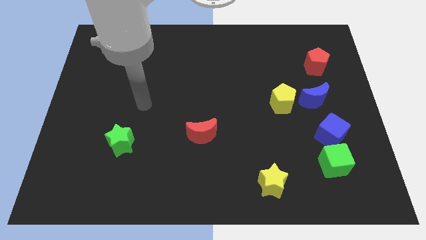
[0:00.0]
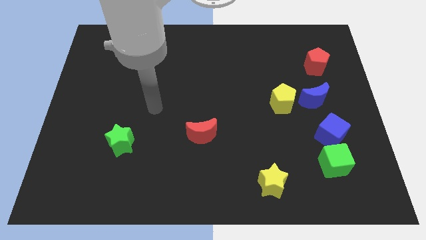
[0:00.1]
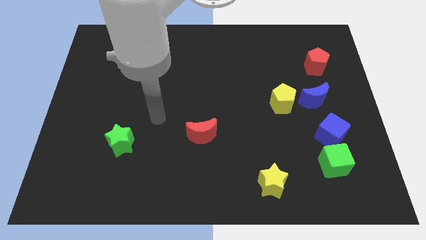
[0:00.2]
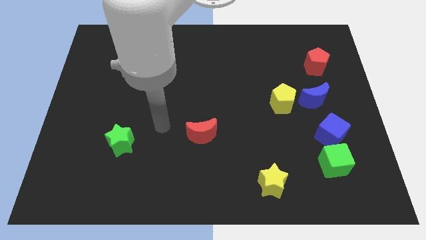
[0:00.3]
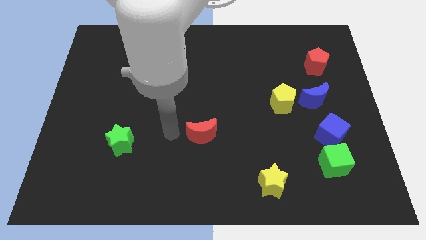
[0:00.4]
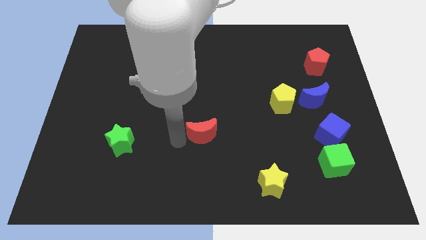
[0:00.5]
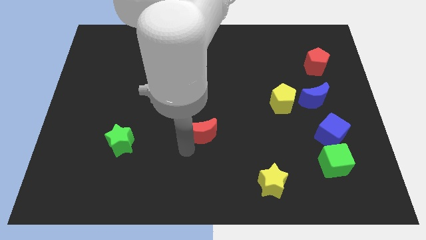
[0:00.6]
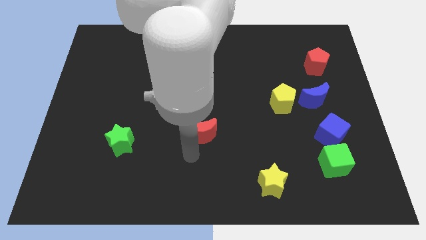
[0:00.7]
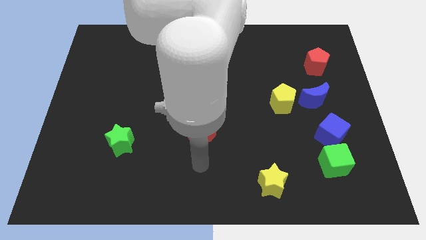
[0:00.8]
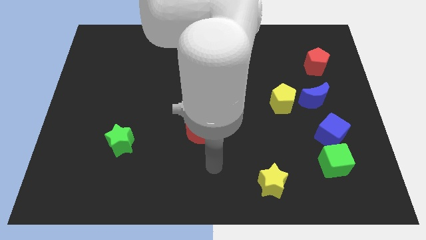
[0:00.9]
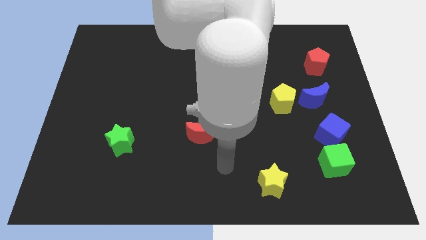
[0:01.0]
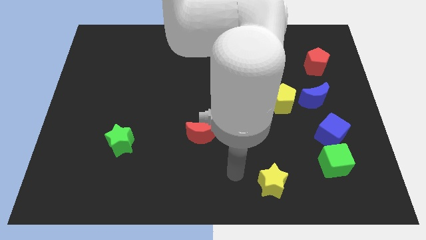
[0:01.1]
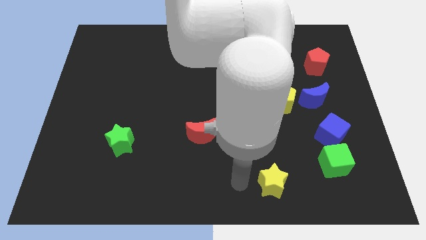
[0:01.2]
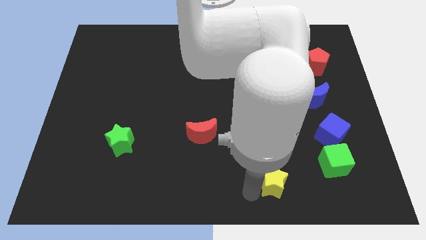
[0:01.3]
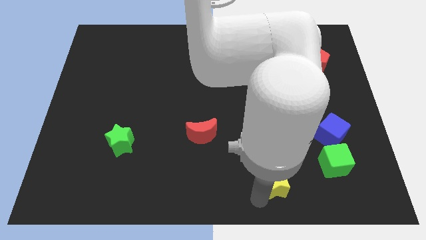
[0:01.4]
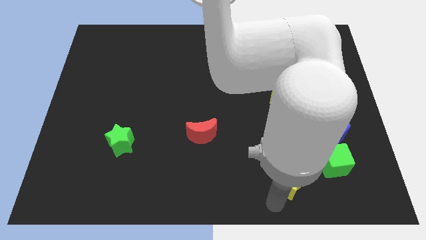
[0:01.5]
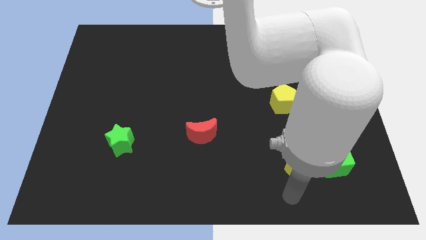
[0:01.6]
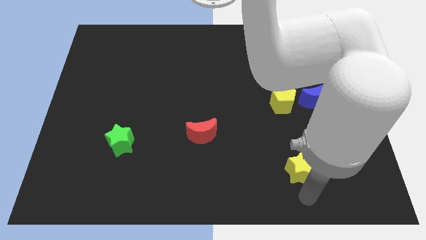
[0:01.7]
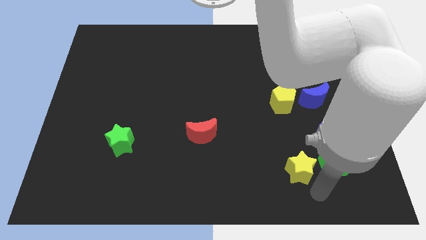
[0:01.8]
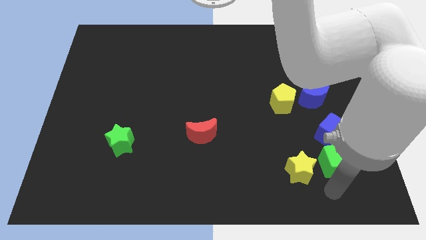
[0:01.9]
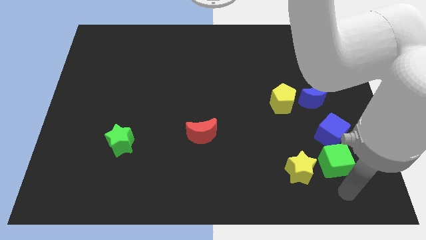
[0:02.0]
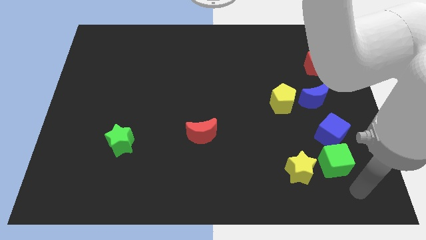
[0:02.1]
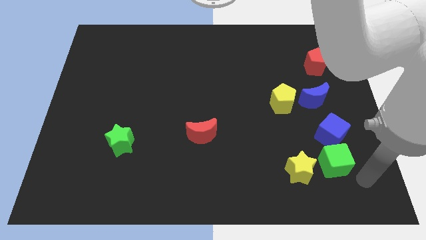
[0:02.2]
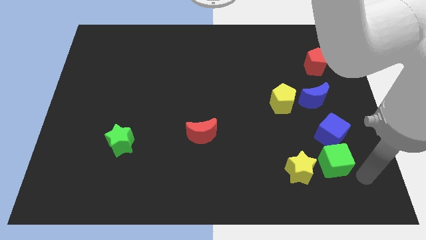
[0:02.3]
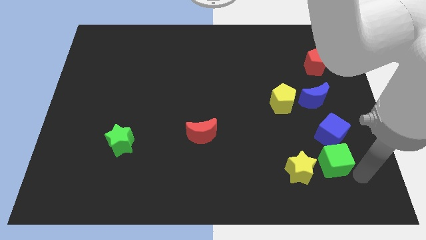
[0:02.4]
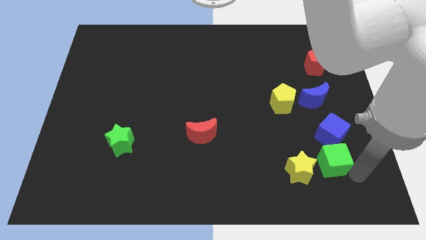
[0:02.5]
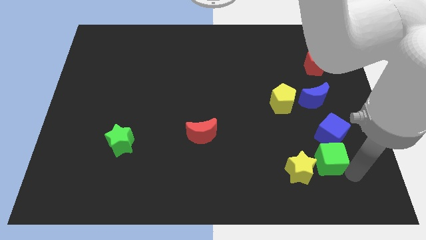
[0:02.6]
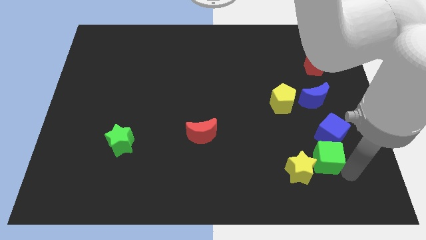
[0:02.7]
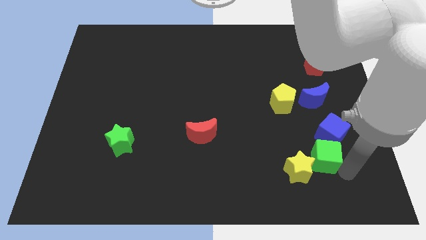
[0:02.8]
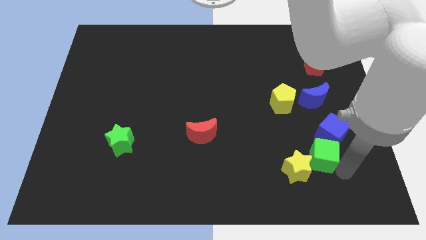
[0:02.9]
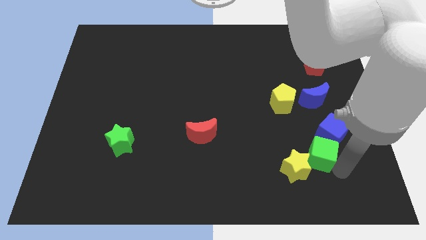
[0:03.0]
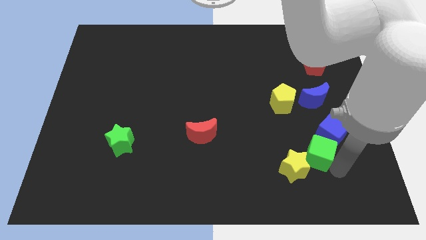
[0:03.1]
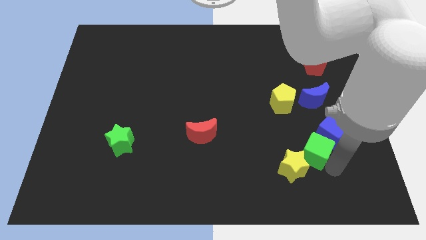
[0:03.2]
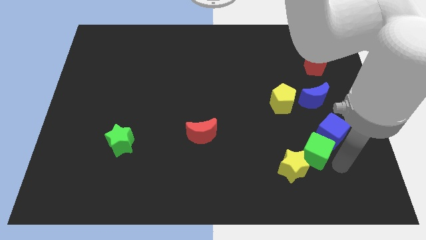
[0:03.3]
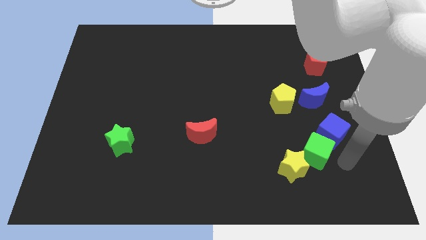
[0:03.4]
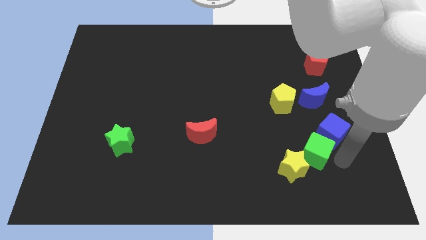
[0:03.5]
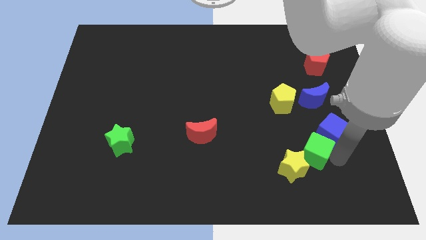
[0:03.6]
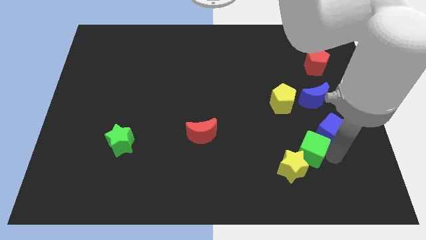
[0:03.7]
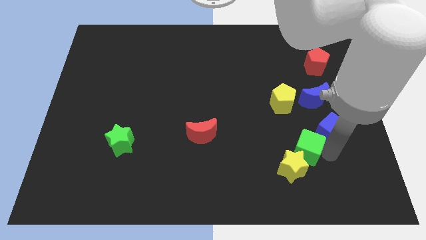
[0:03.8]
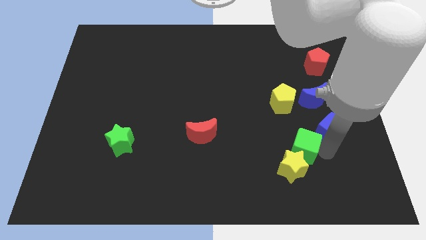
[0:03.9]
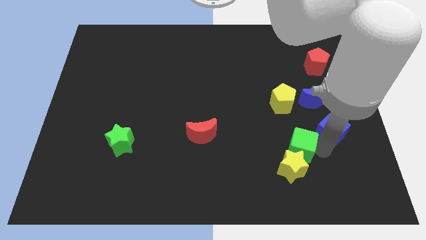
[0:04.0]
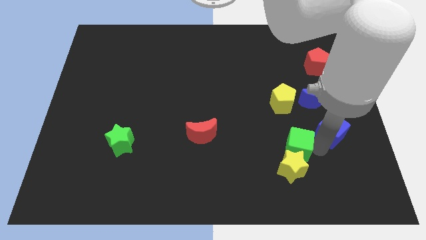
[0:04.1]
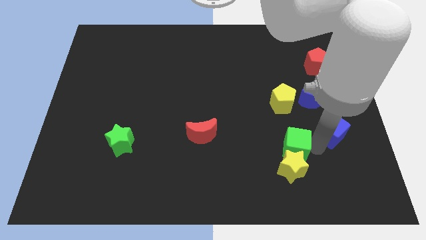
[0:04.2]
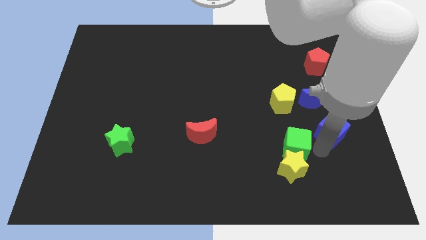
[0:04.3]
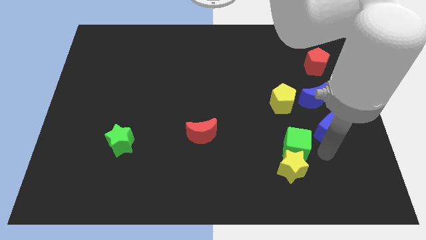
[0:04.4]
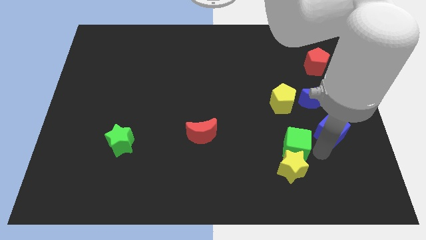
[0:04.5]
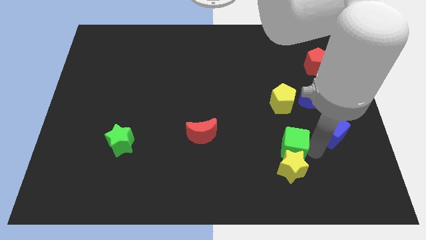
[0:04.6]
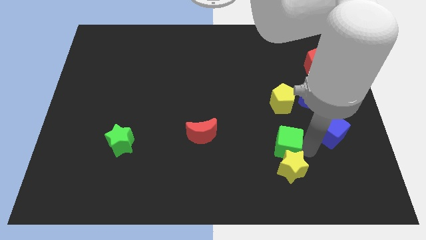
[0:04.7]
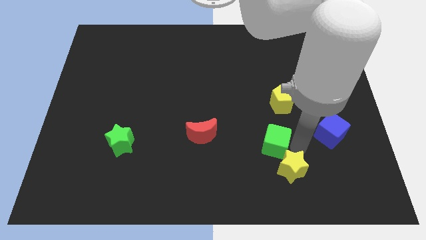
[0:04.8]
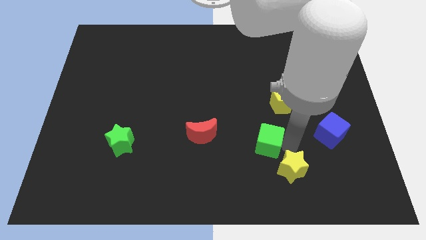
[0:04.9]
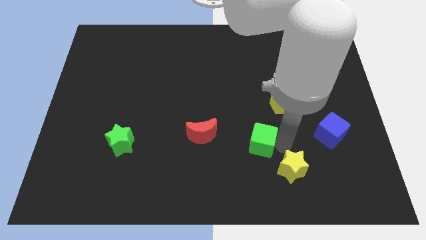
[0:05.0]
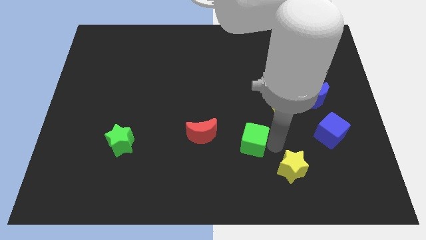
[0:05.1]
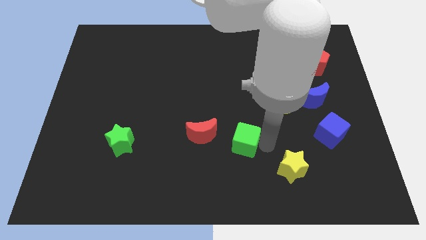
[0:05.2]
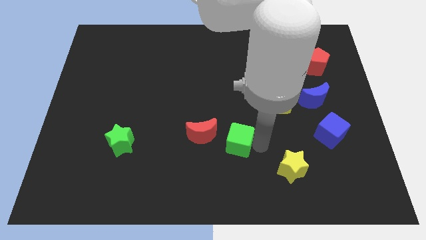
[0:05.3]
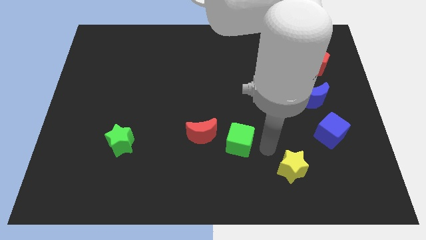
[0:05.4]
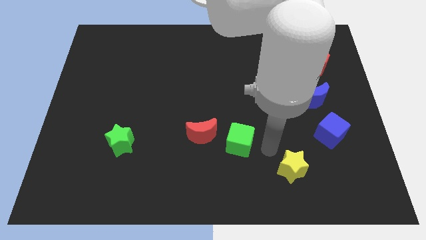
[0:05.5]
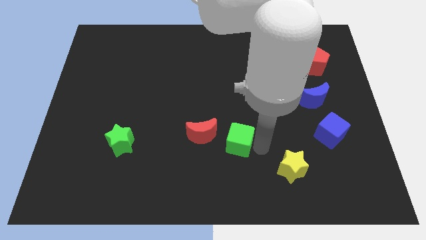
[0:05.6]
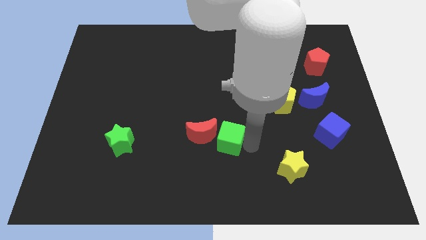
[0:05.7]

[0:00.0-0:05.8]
move the green cube to the red moon

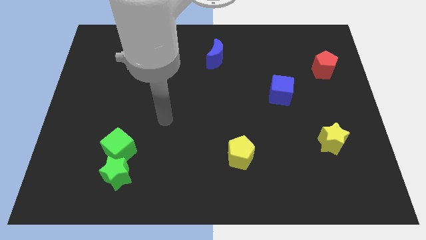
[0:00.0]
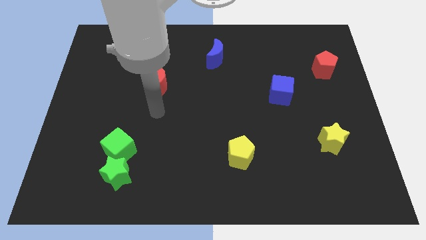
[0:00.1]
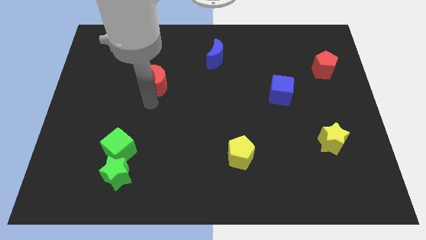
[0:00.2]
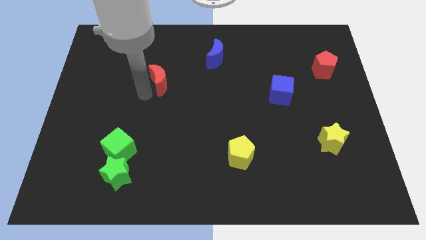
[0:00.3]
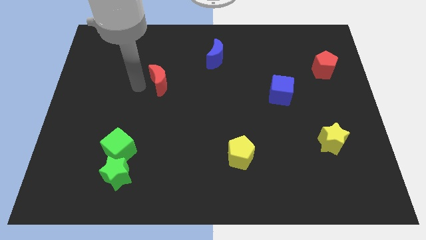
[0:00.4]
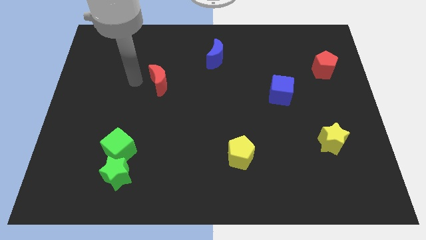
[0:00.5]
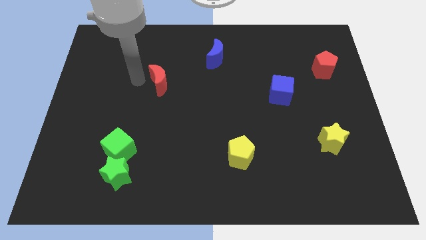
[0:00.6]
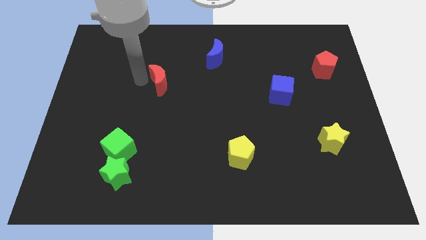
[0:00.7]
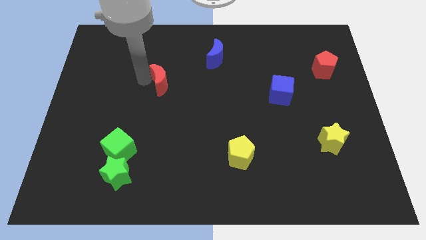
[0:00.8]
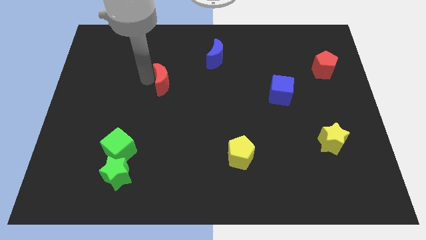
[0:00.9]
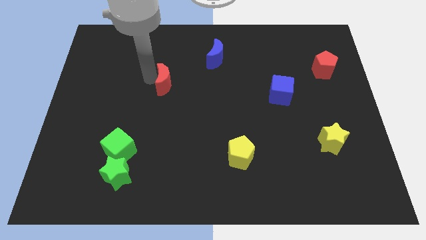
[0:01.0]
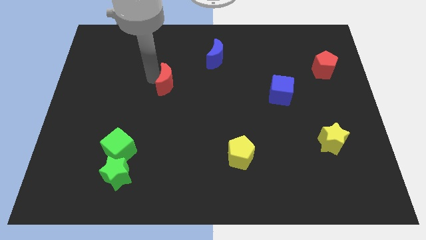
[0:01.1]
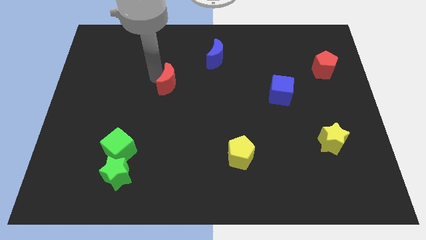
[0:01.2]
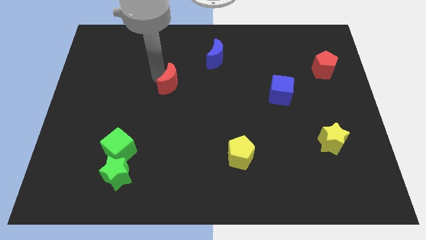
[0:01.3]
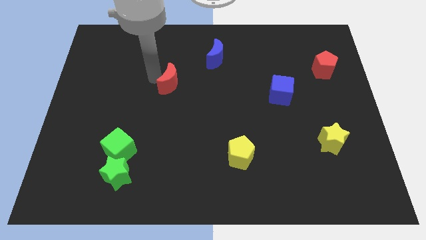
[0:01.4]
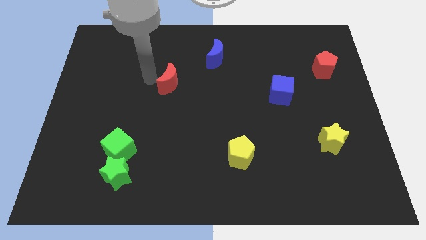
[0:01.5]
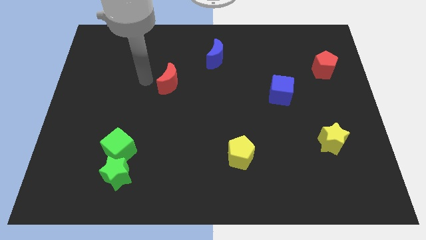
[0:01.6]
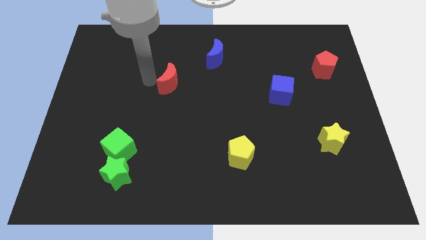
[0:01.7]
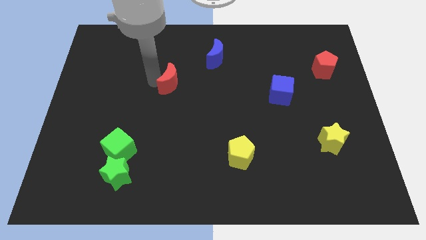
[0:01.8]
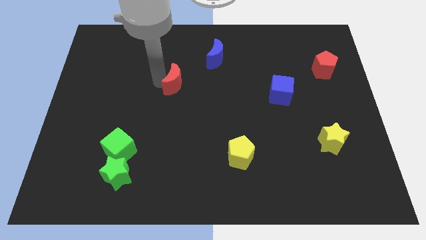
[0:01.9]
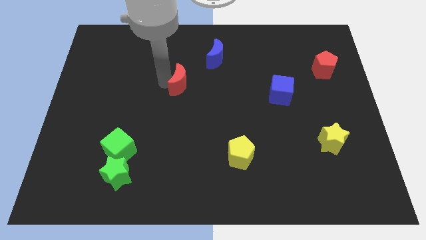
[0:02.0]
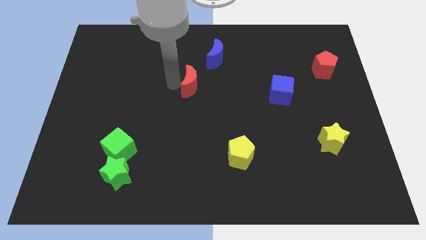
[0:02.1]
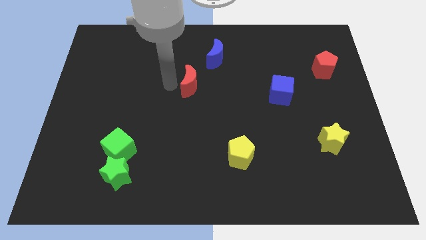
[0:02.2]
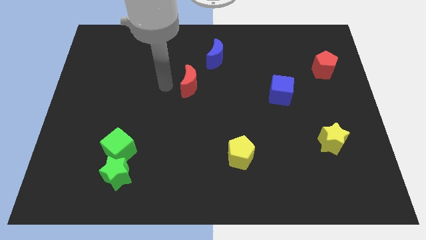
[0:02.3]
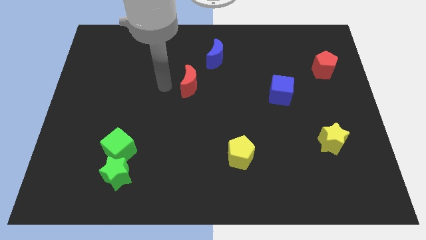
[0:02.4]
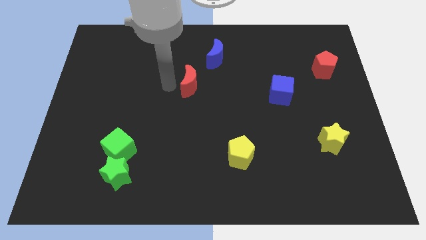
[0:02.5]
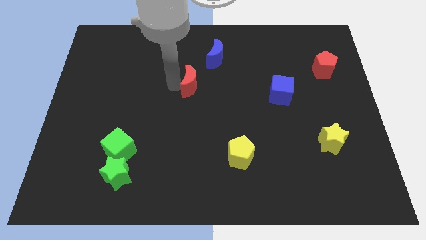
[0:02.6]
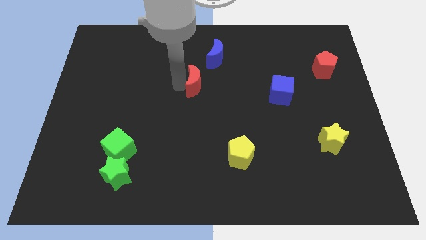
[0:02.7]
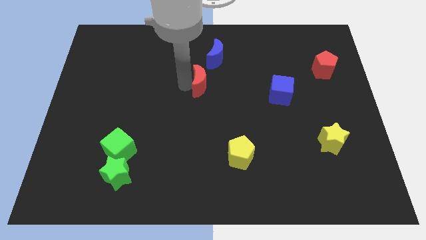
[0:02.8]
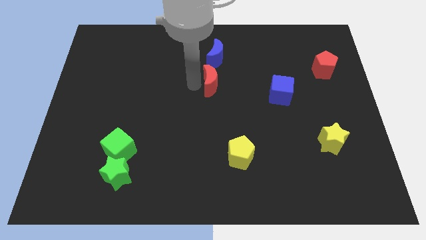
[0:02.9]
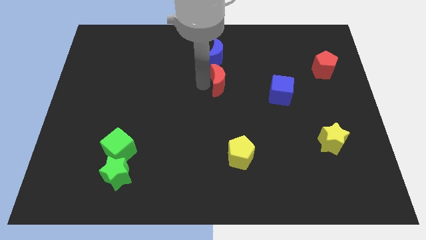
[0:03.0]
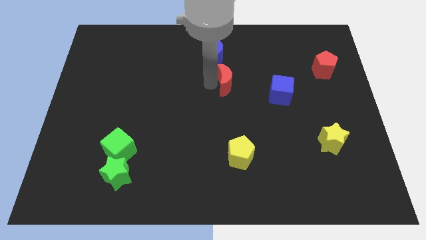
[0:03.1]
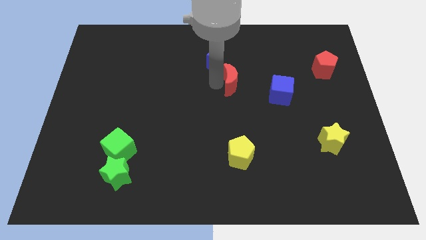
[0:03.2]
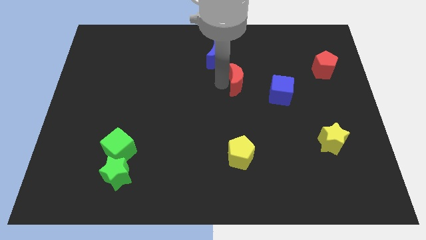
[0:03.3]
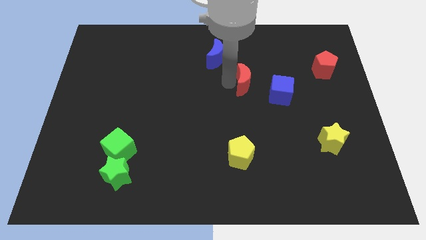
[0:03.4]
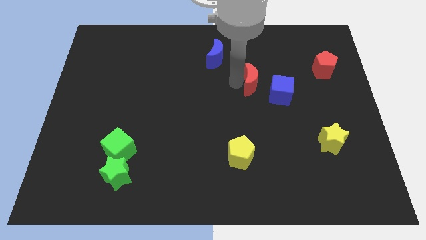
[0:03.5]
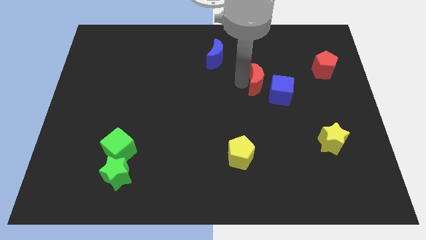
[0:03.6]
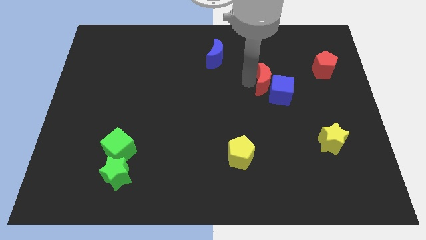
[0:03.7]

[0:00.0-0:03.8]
move the red moon to the blue cube
